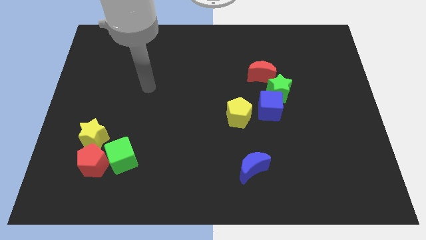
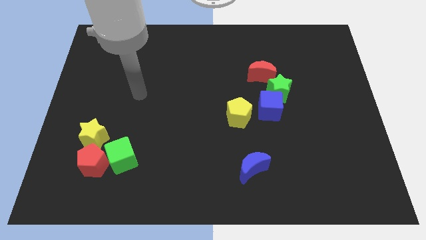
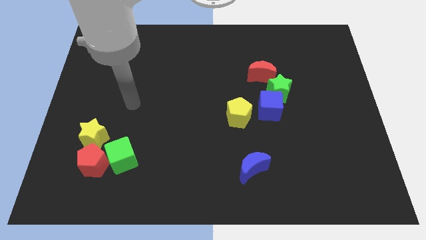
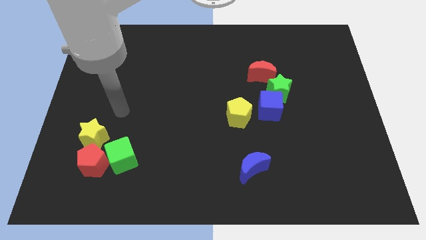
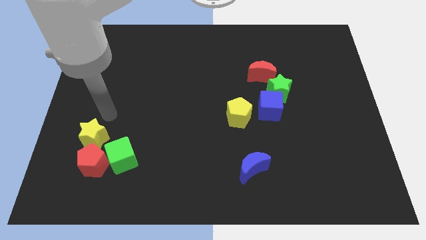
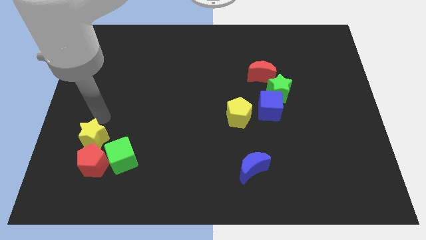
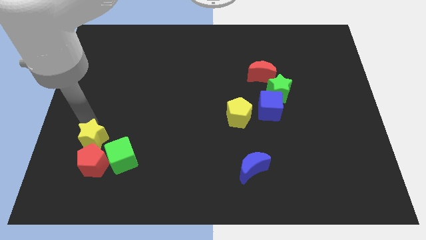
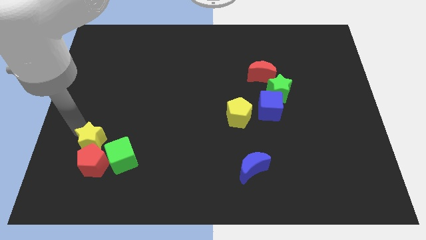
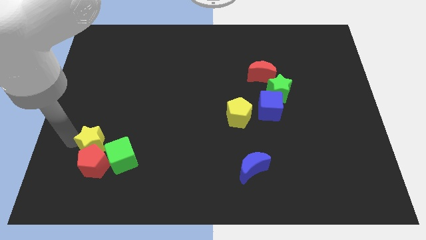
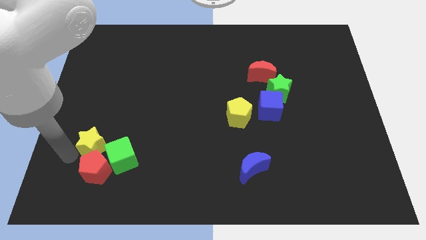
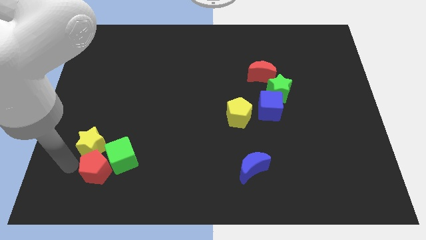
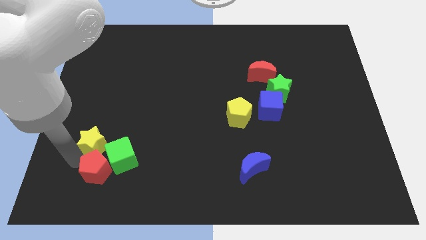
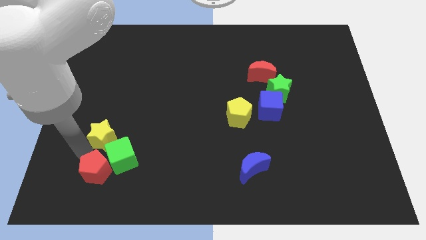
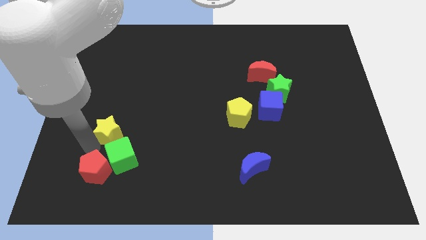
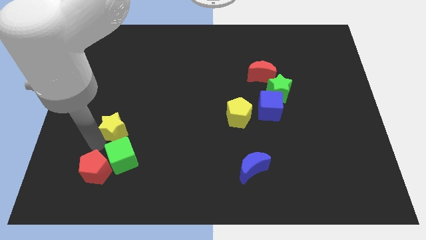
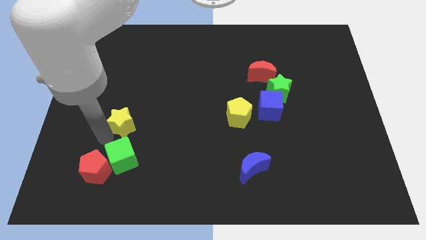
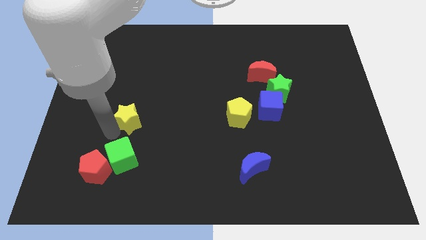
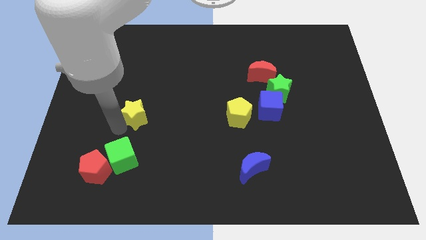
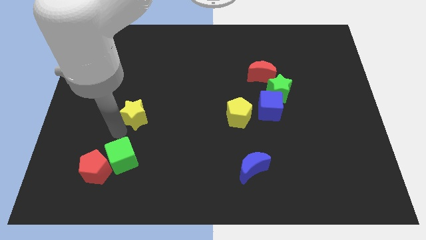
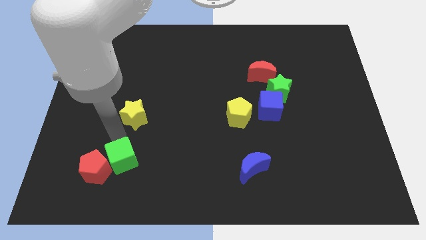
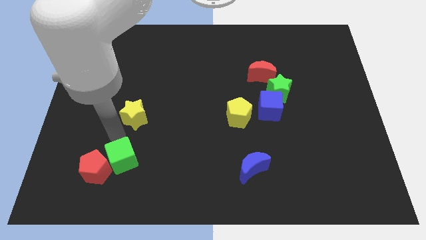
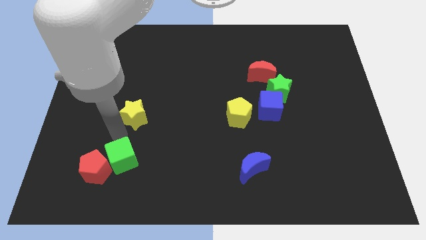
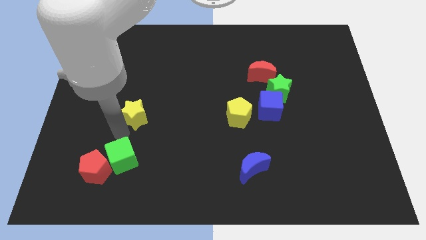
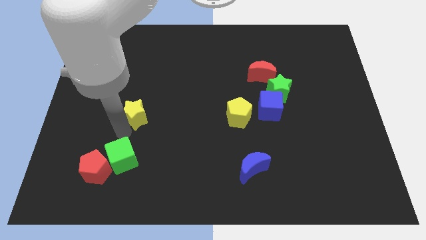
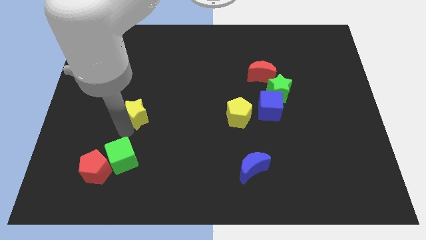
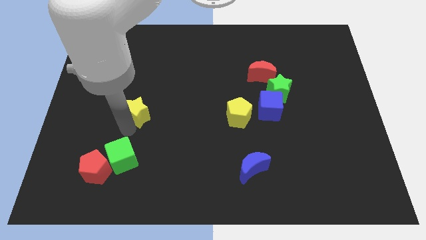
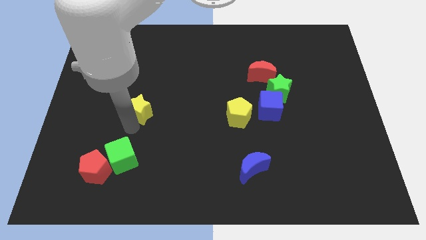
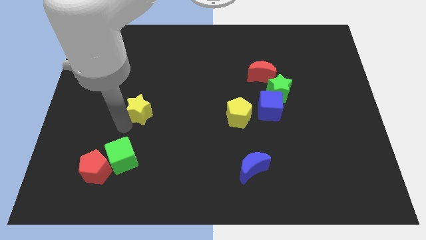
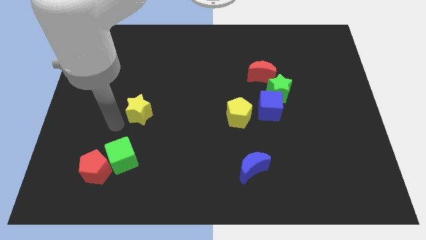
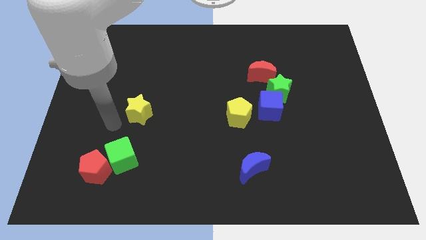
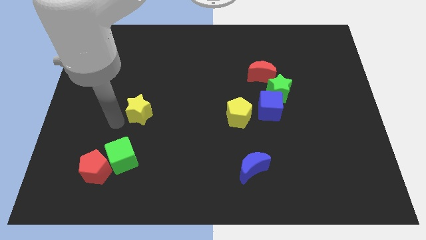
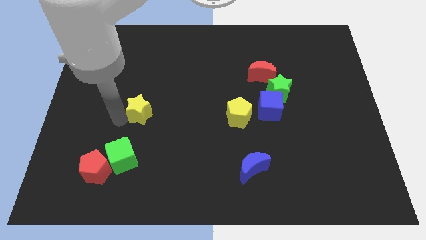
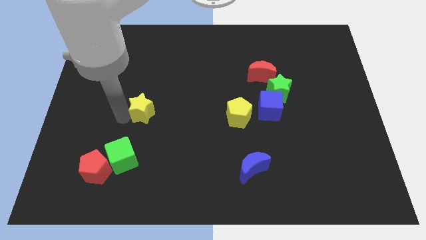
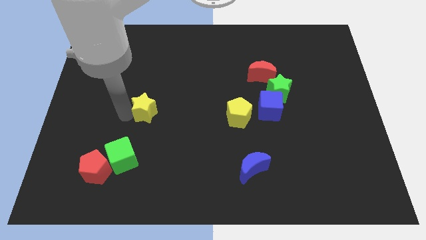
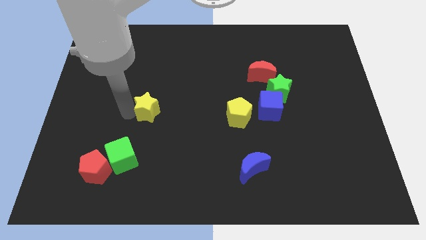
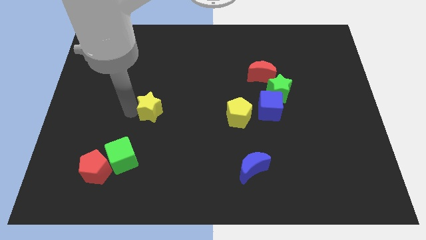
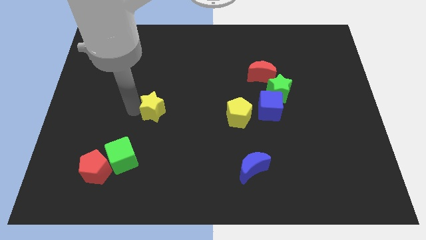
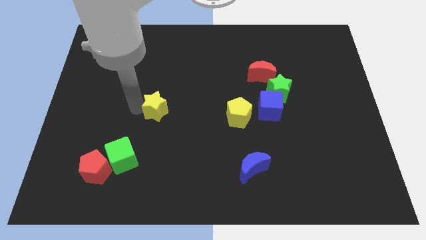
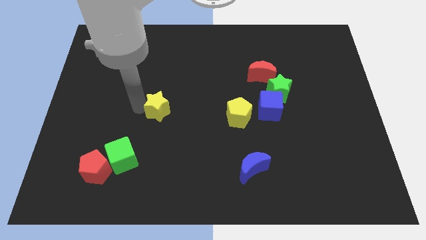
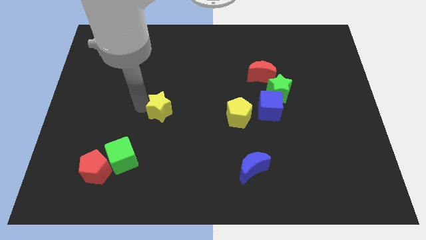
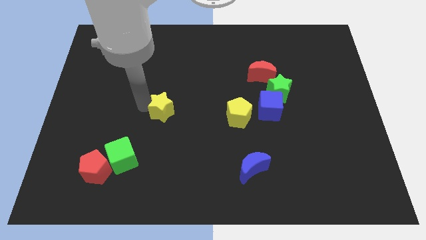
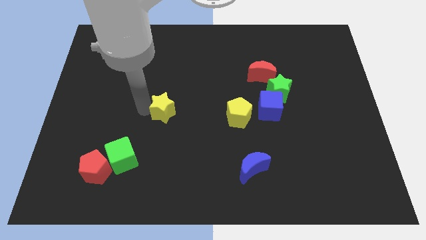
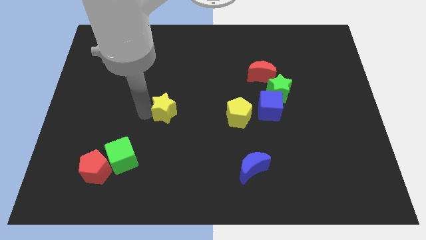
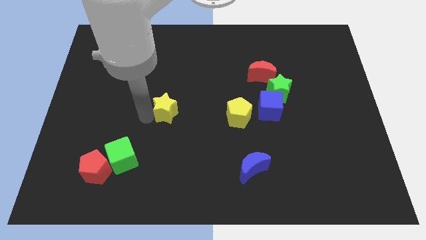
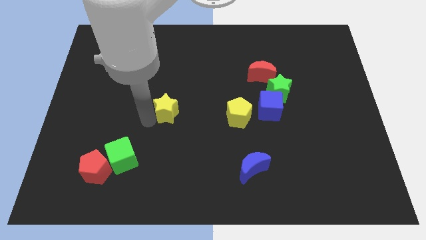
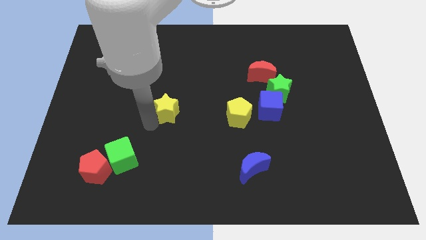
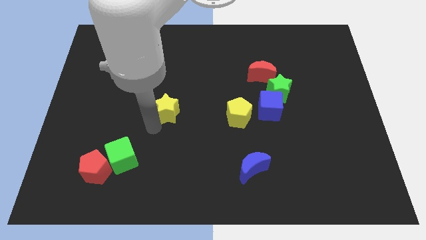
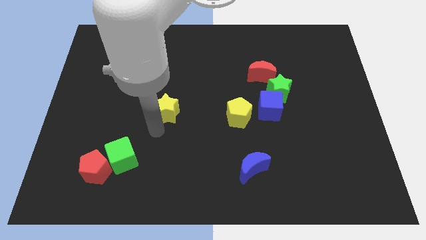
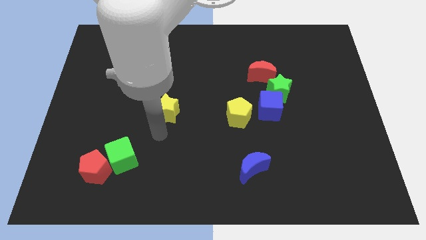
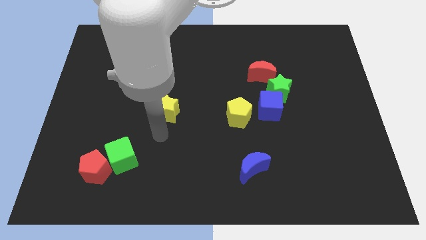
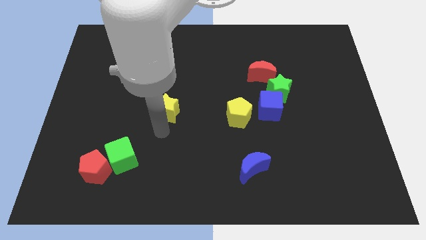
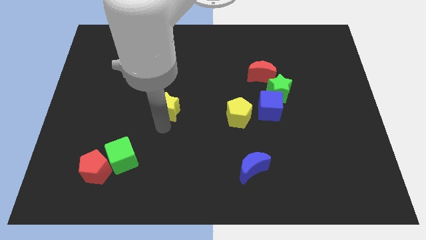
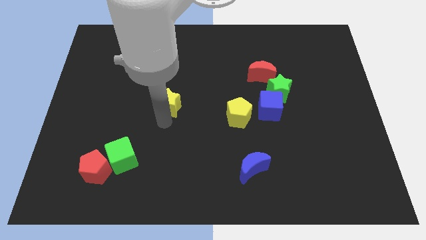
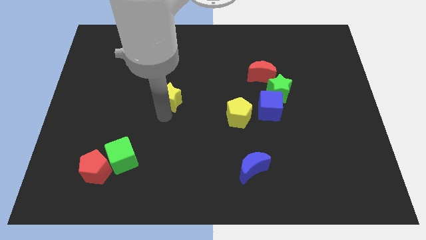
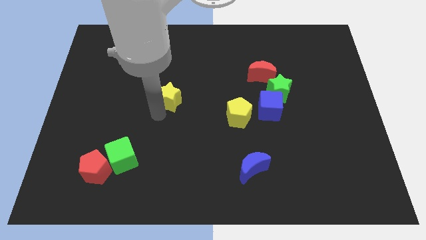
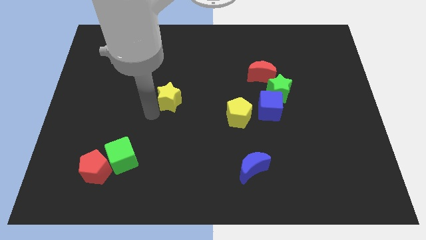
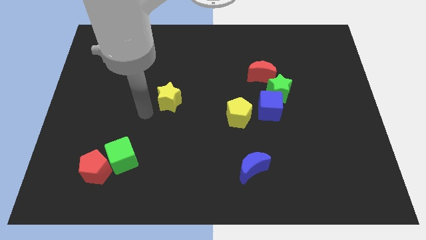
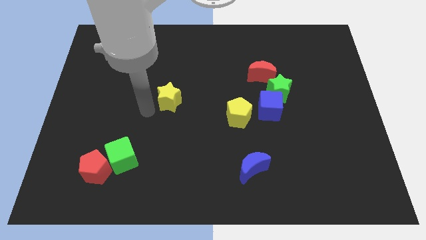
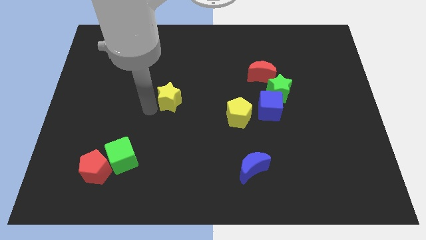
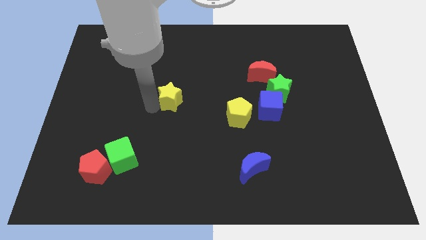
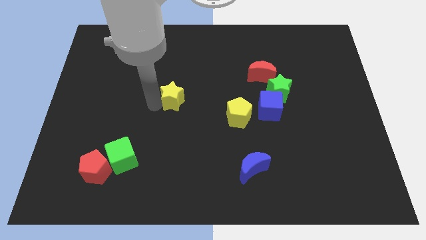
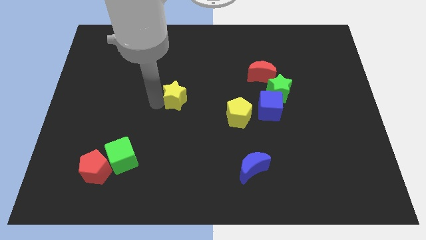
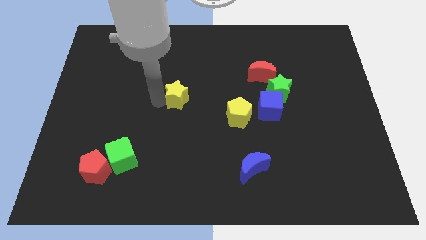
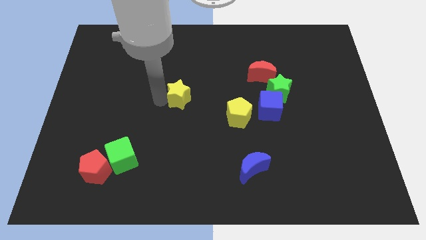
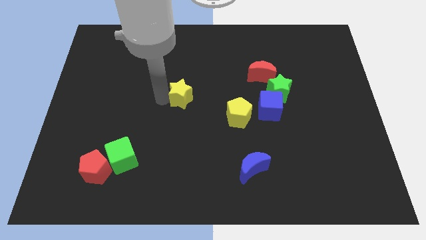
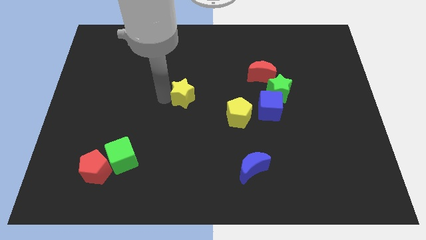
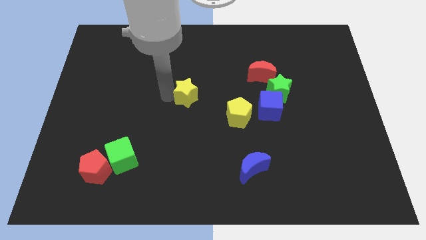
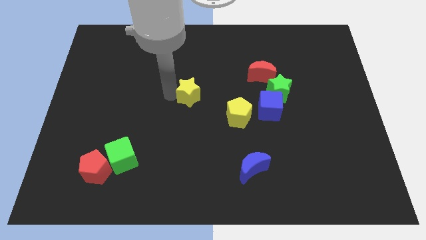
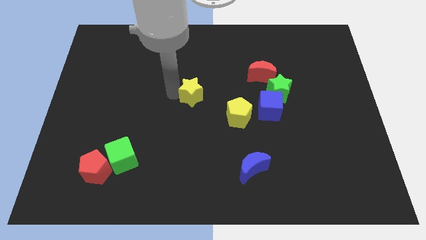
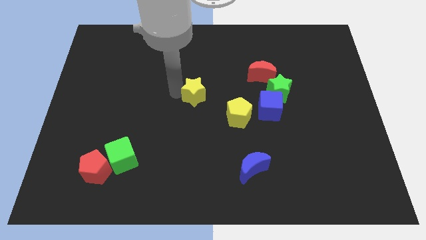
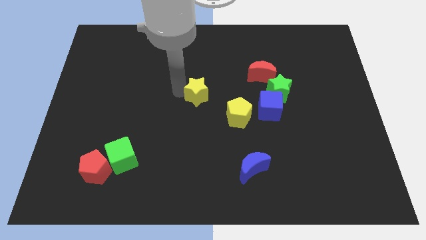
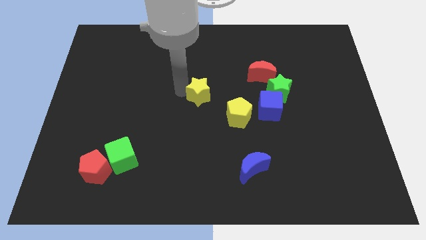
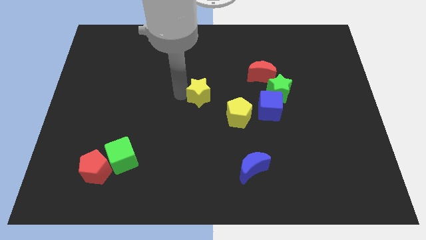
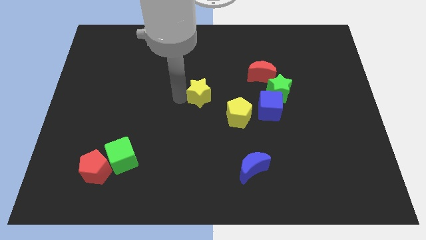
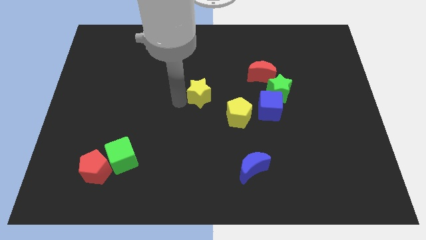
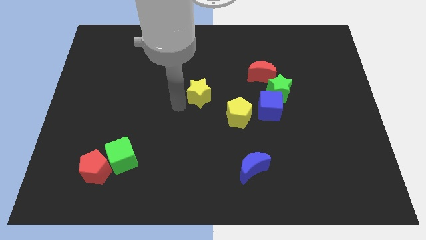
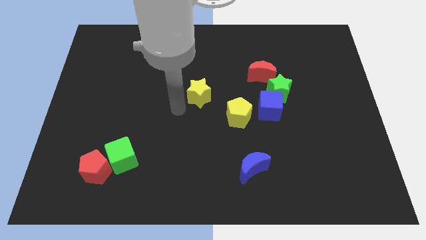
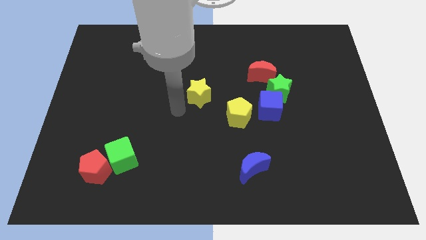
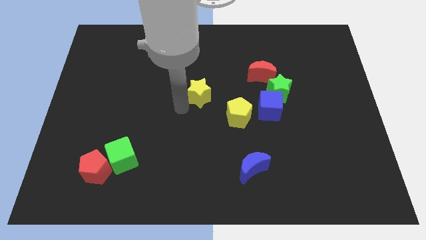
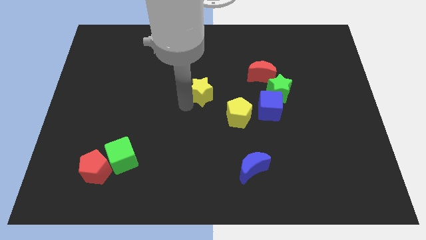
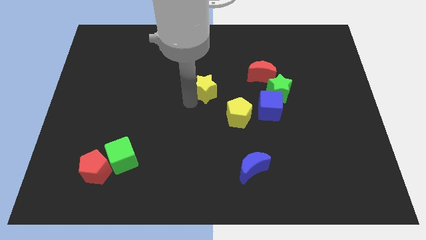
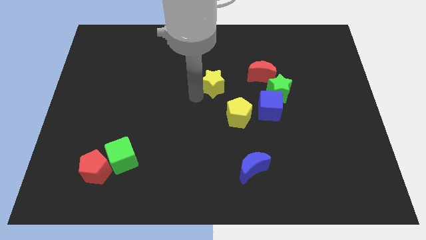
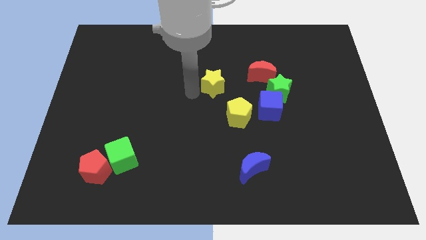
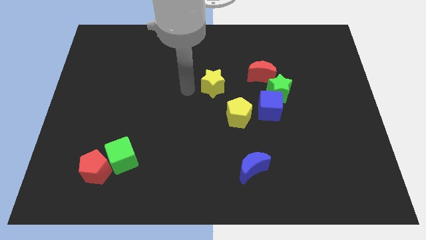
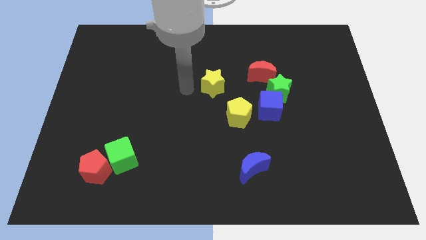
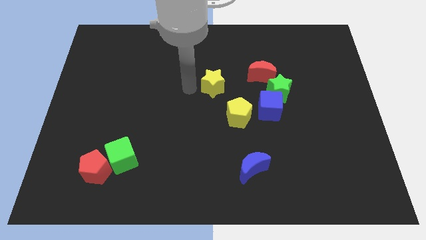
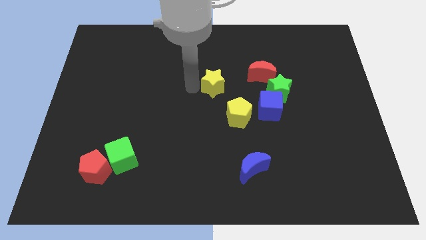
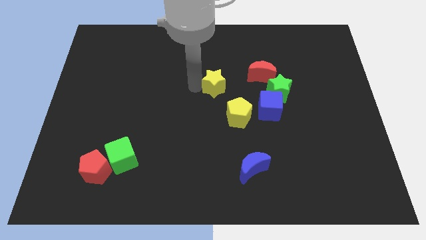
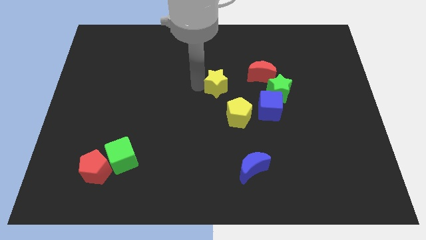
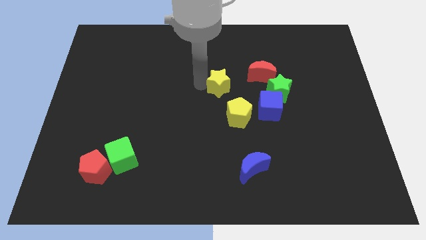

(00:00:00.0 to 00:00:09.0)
put the yellow star above the yellow pentagon
